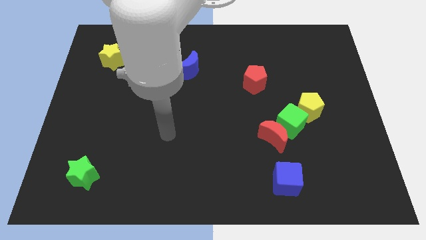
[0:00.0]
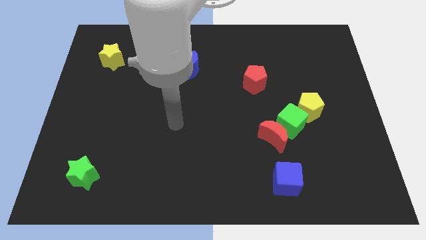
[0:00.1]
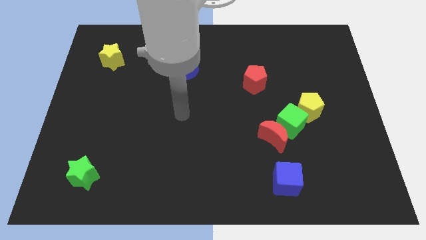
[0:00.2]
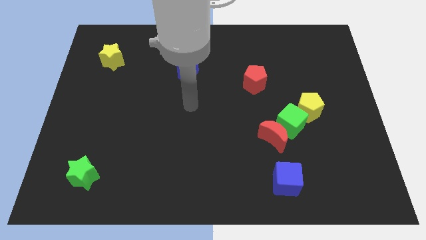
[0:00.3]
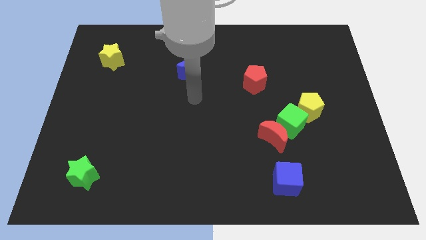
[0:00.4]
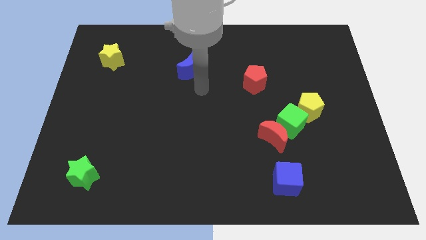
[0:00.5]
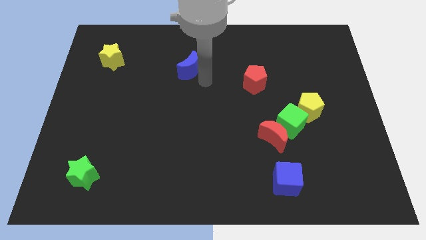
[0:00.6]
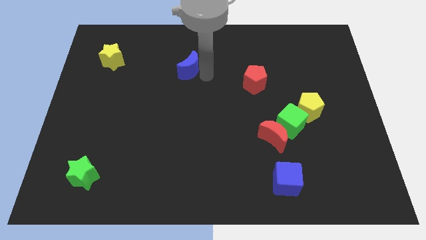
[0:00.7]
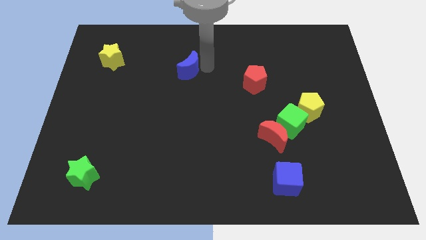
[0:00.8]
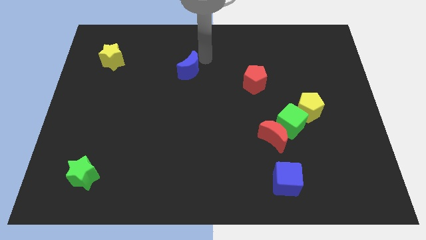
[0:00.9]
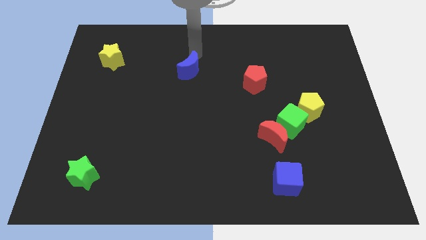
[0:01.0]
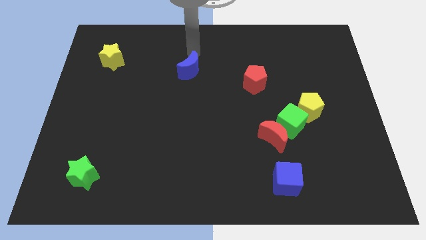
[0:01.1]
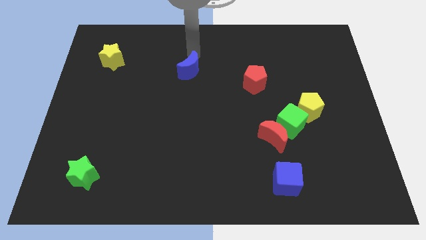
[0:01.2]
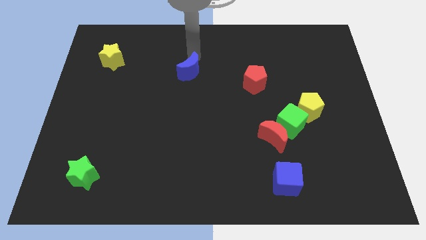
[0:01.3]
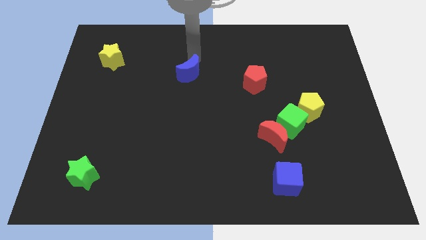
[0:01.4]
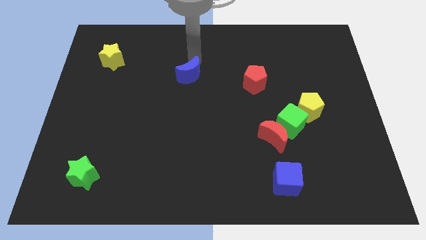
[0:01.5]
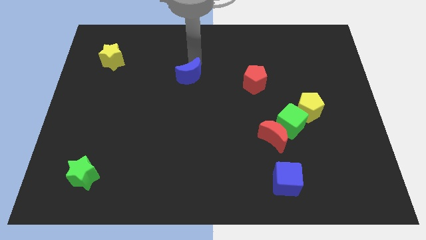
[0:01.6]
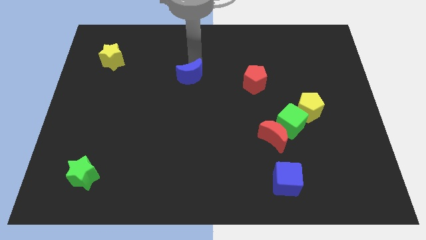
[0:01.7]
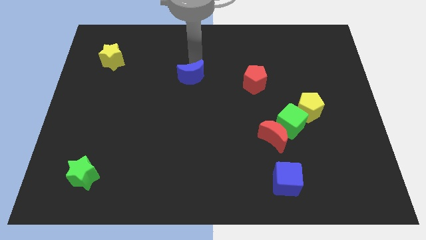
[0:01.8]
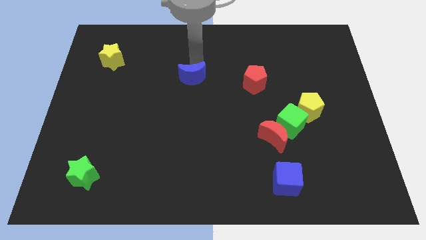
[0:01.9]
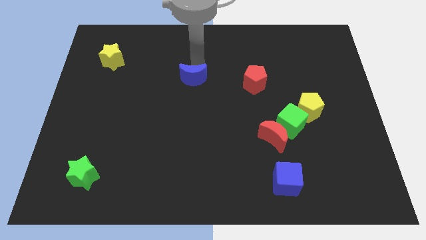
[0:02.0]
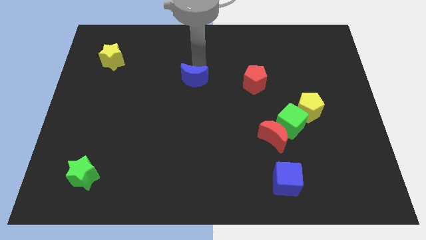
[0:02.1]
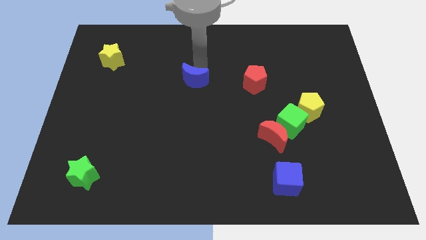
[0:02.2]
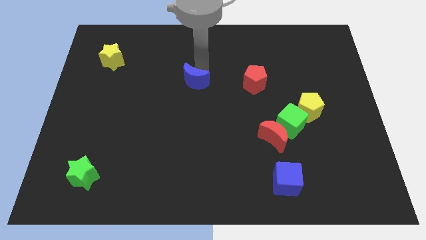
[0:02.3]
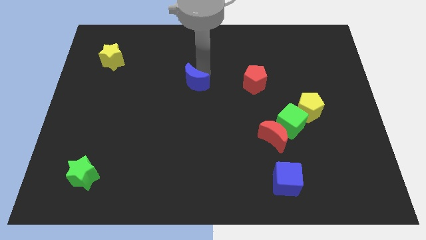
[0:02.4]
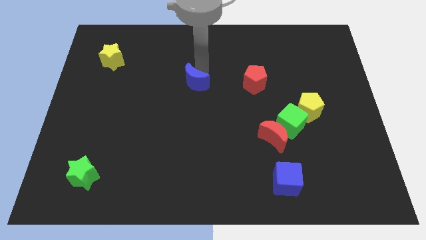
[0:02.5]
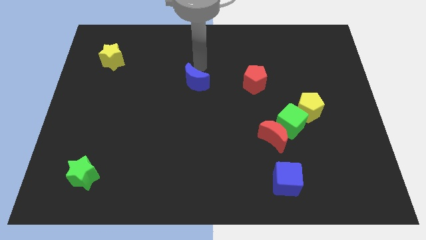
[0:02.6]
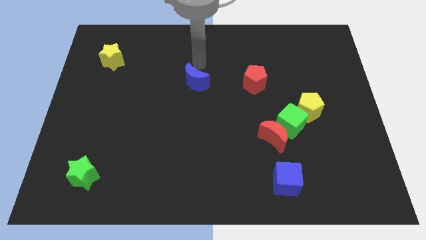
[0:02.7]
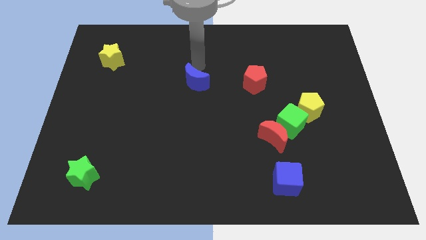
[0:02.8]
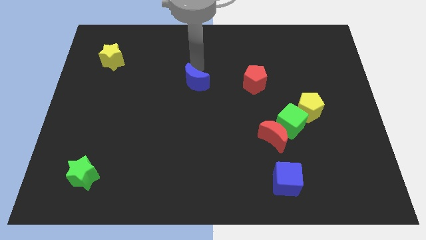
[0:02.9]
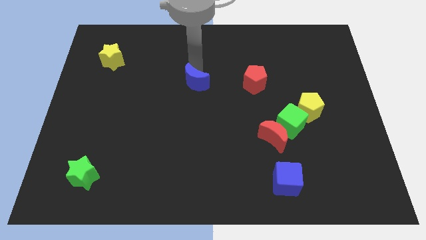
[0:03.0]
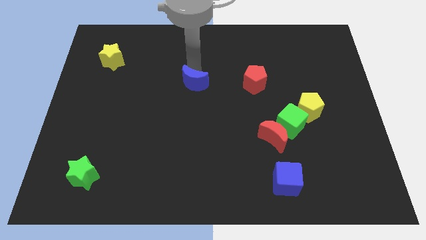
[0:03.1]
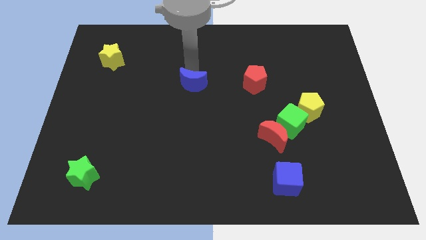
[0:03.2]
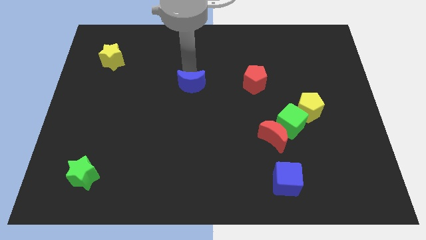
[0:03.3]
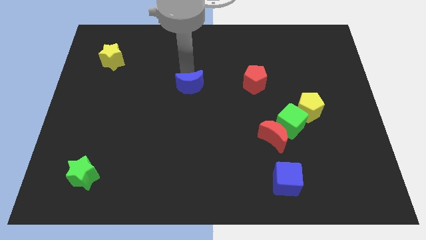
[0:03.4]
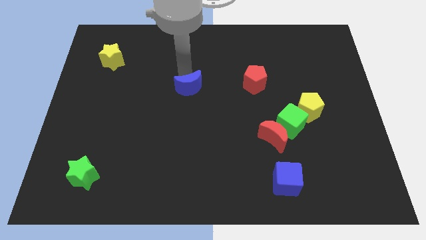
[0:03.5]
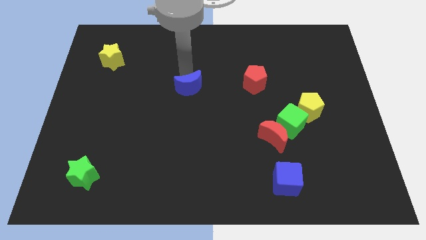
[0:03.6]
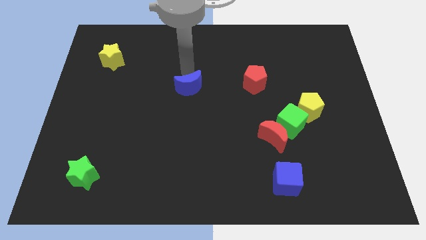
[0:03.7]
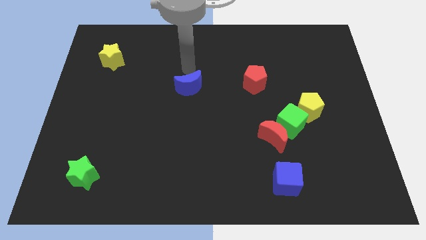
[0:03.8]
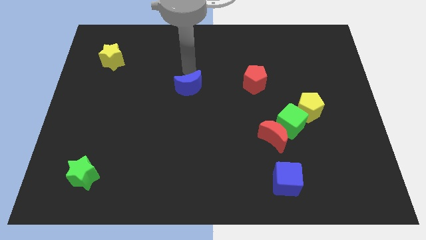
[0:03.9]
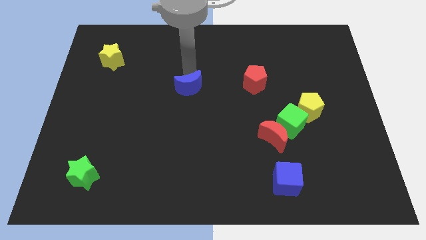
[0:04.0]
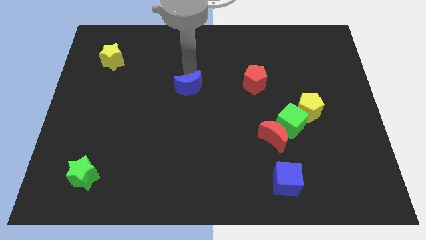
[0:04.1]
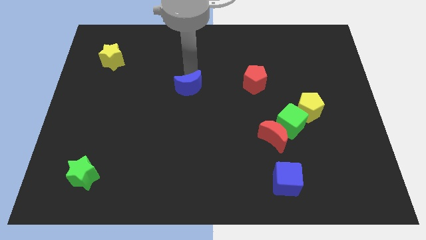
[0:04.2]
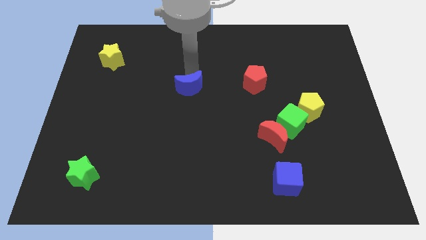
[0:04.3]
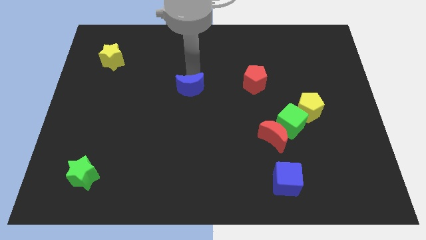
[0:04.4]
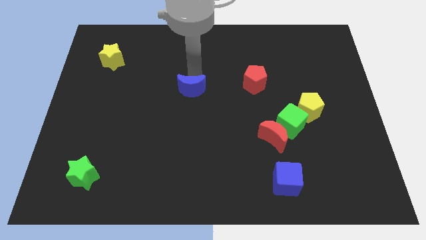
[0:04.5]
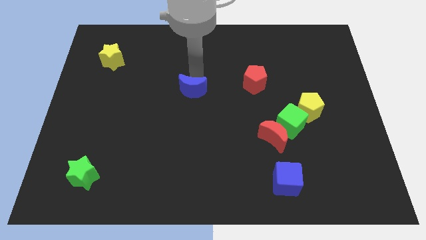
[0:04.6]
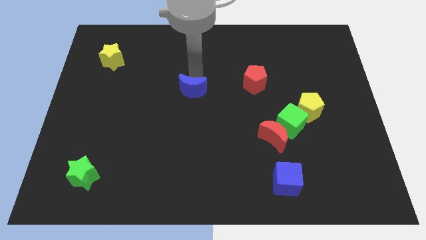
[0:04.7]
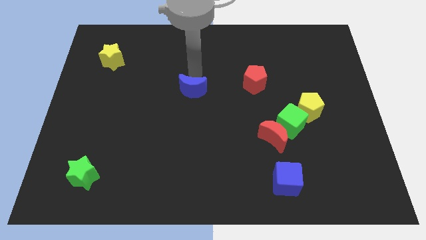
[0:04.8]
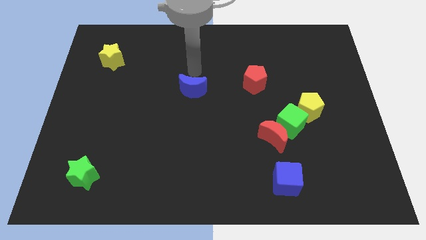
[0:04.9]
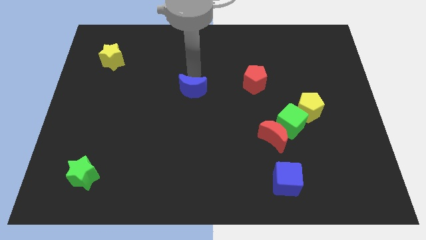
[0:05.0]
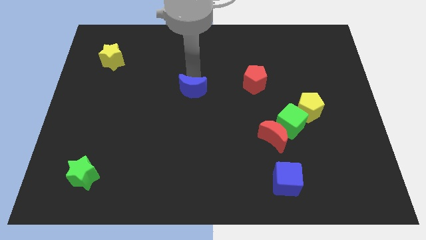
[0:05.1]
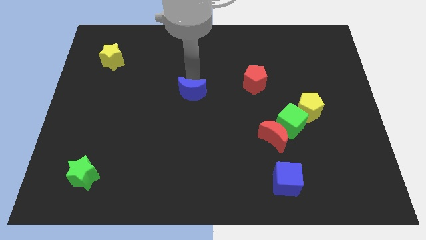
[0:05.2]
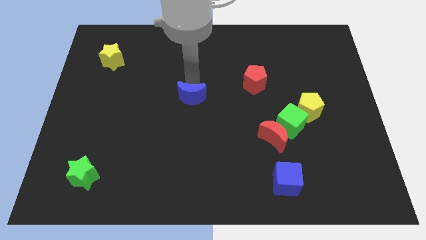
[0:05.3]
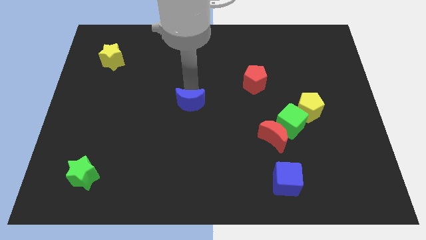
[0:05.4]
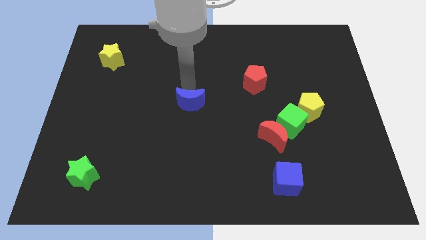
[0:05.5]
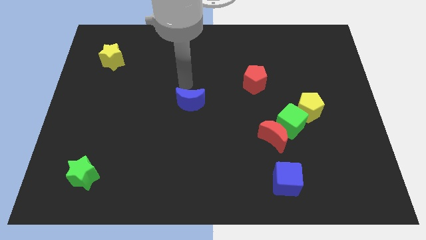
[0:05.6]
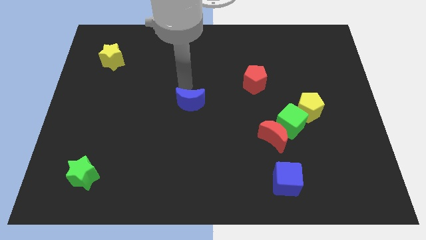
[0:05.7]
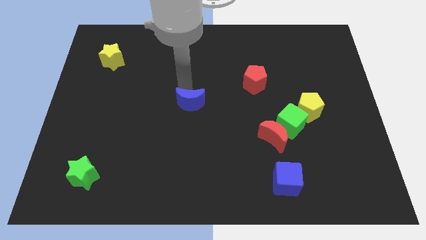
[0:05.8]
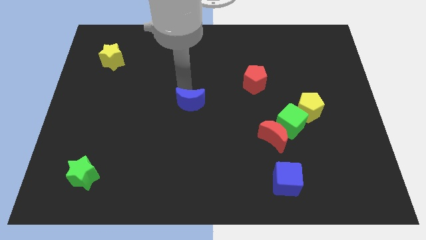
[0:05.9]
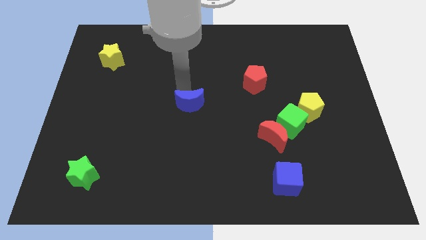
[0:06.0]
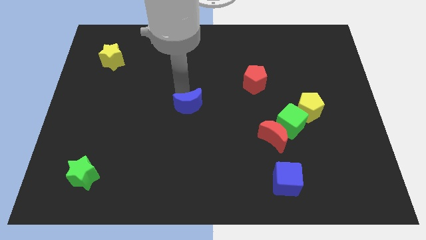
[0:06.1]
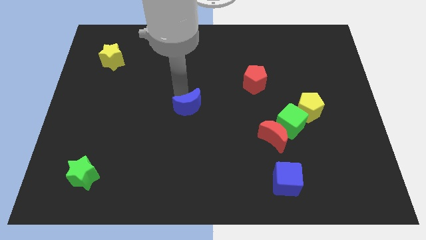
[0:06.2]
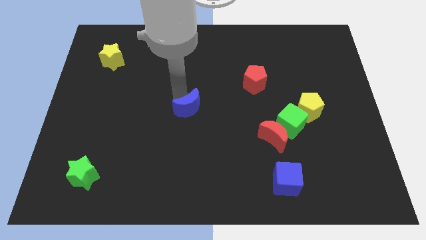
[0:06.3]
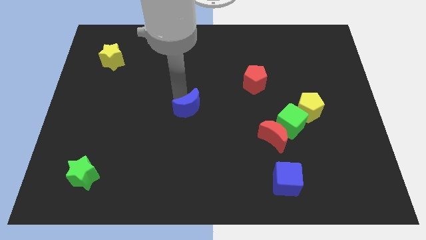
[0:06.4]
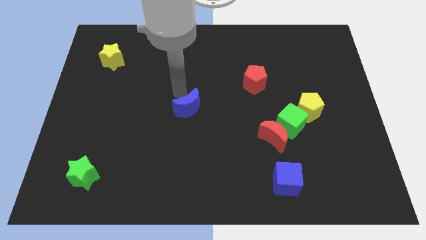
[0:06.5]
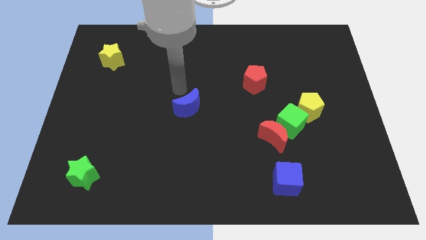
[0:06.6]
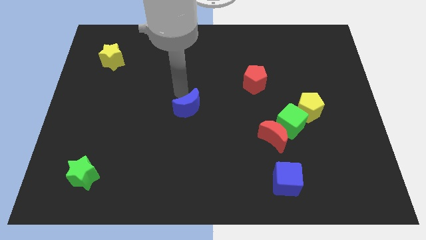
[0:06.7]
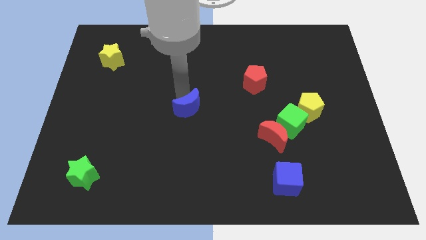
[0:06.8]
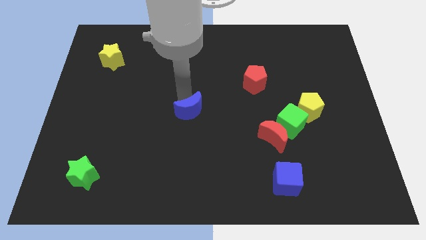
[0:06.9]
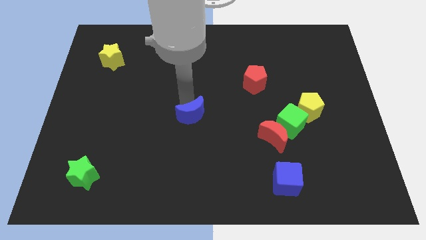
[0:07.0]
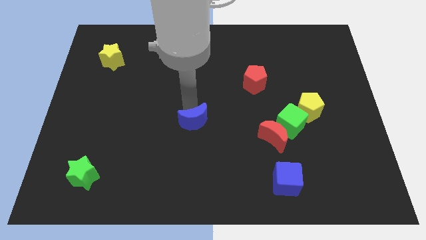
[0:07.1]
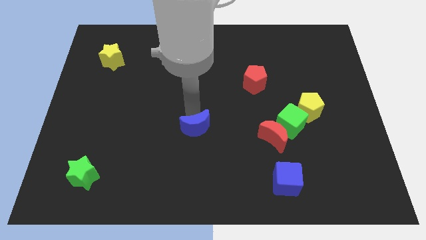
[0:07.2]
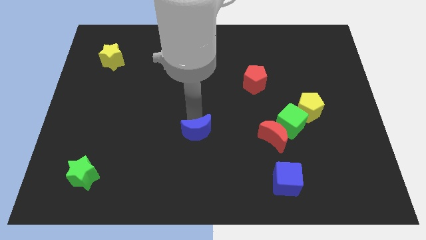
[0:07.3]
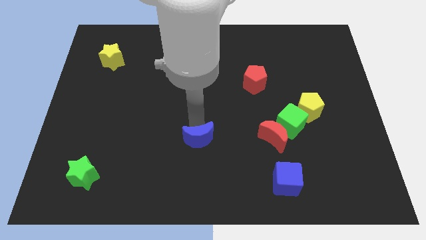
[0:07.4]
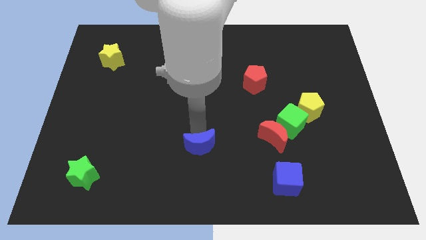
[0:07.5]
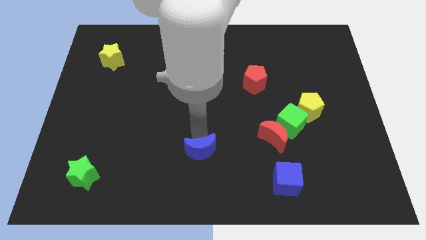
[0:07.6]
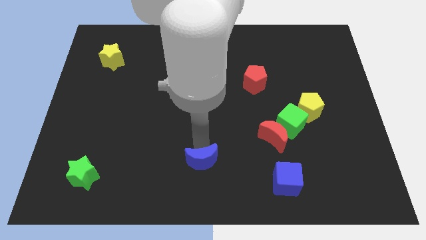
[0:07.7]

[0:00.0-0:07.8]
slide the blue moon to the bottom side
